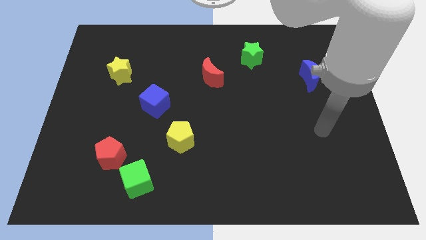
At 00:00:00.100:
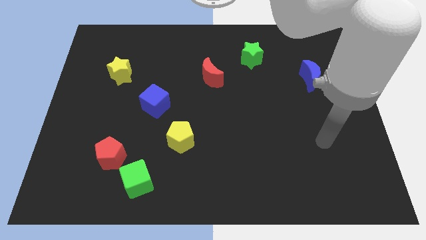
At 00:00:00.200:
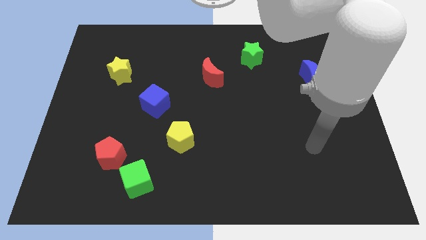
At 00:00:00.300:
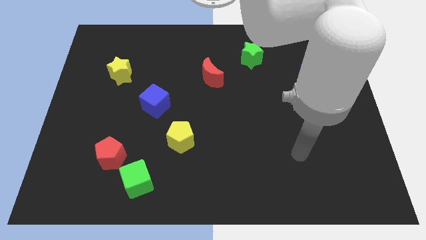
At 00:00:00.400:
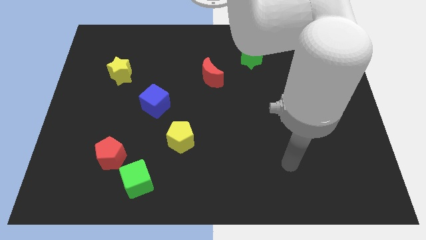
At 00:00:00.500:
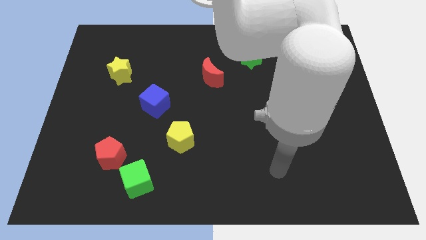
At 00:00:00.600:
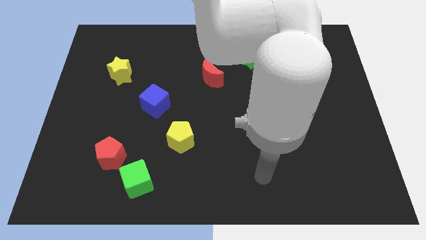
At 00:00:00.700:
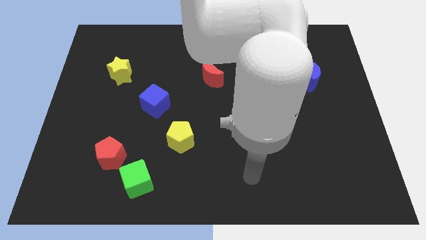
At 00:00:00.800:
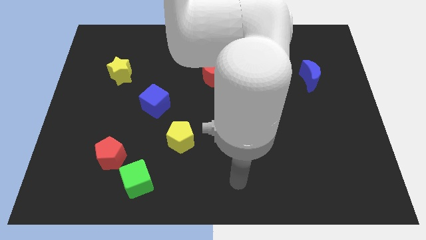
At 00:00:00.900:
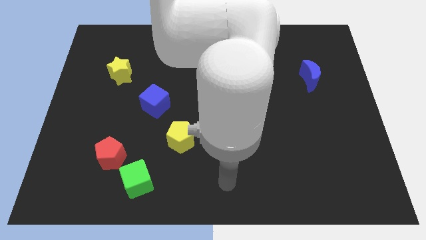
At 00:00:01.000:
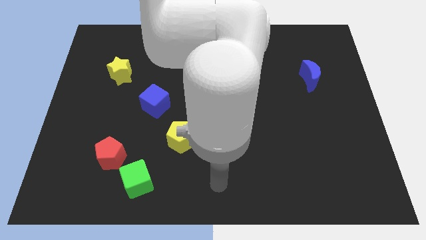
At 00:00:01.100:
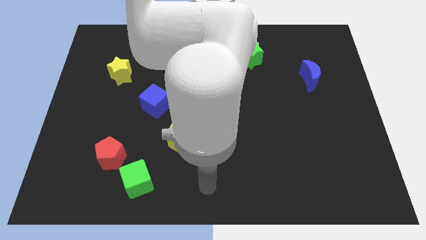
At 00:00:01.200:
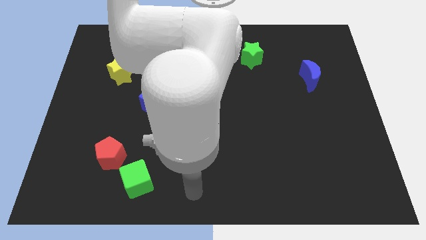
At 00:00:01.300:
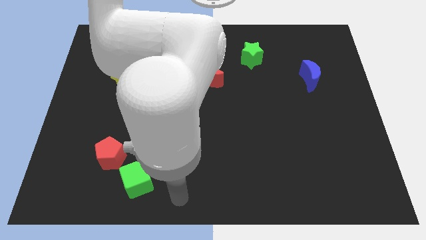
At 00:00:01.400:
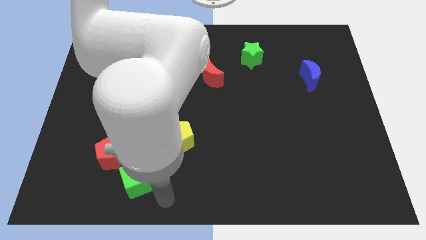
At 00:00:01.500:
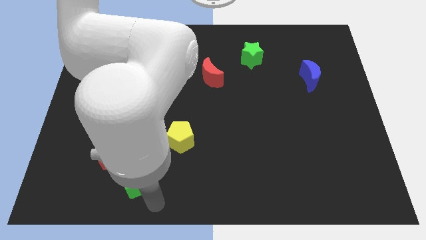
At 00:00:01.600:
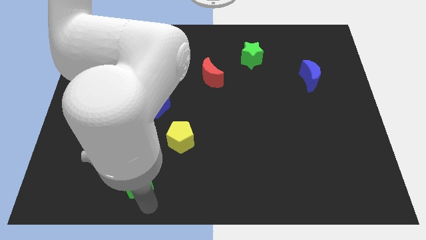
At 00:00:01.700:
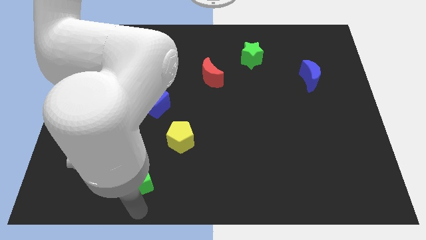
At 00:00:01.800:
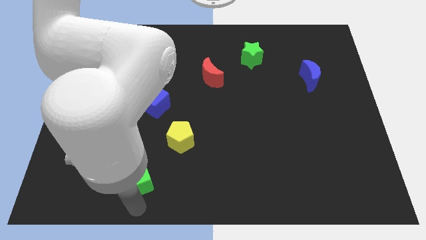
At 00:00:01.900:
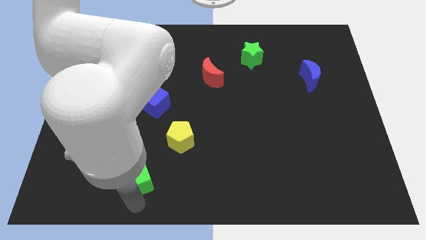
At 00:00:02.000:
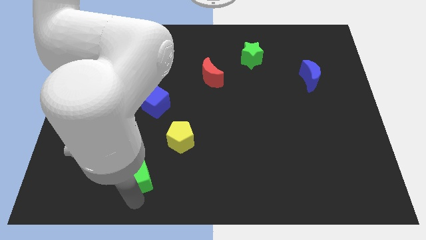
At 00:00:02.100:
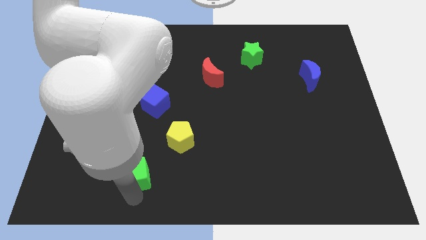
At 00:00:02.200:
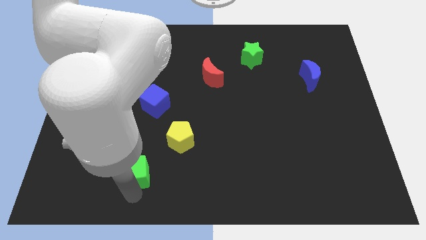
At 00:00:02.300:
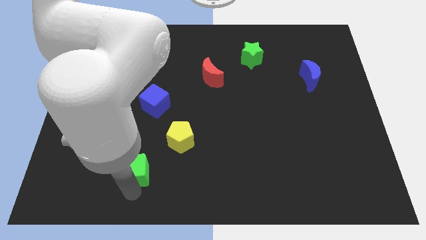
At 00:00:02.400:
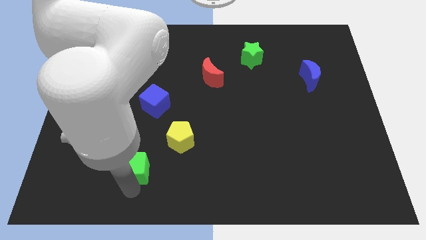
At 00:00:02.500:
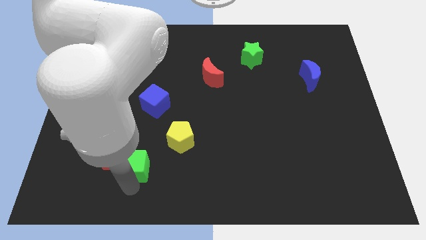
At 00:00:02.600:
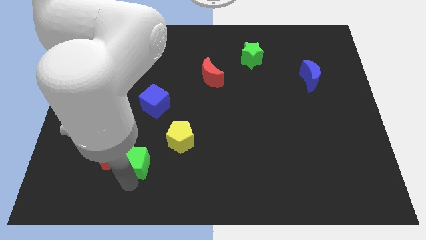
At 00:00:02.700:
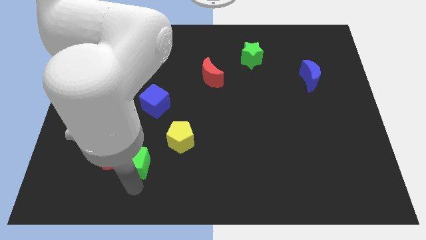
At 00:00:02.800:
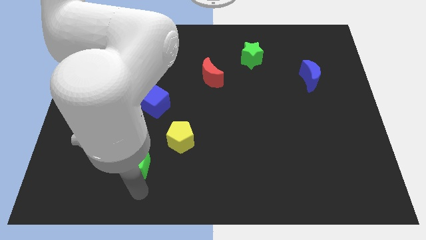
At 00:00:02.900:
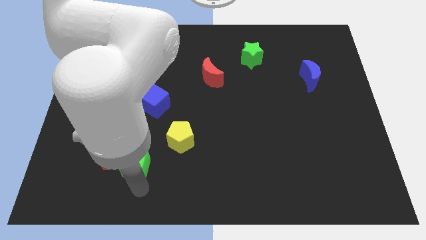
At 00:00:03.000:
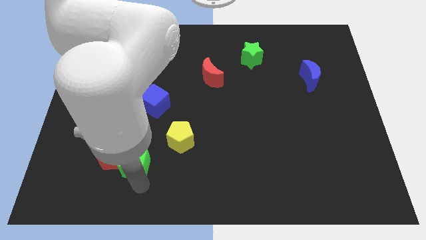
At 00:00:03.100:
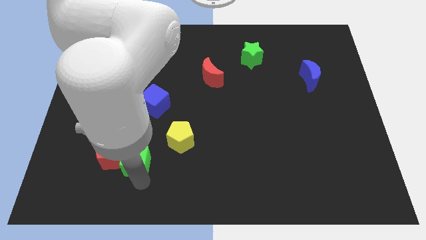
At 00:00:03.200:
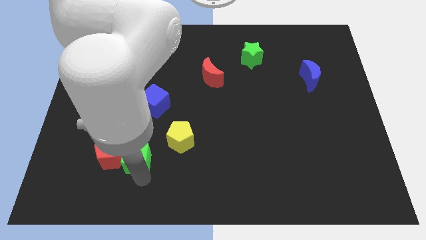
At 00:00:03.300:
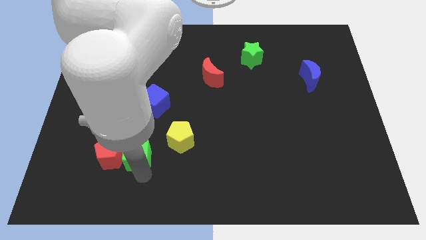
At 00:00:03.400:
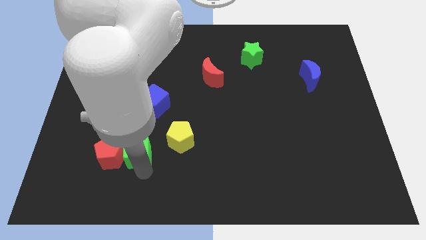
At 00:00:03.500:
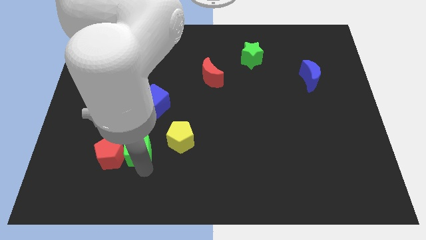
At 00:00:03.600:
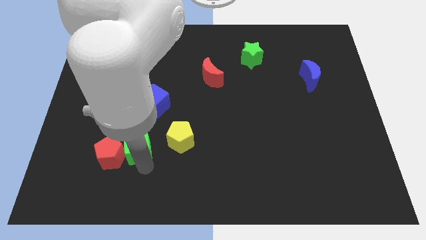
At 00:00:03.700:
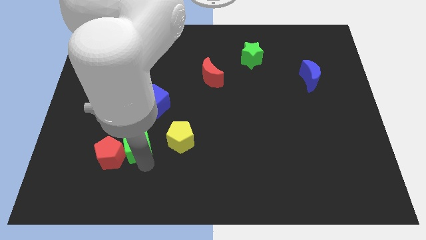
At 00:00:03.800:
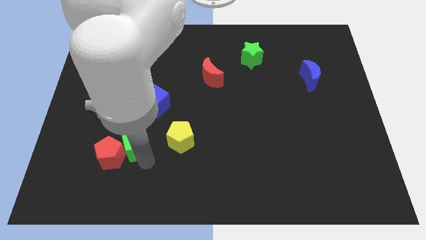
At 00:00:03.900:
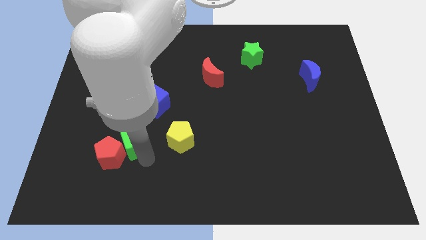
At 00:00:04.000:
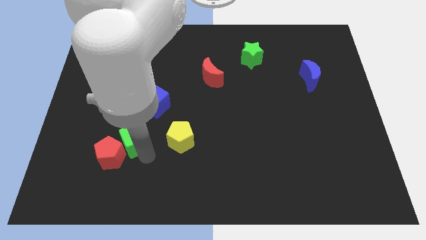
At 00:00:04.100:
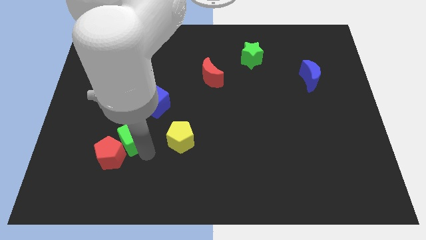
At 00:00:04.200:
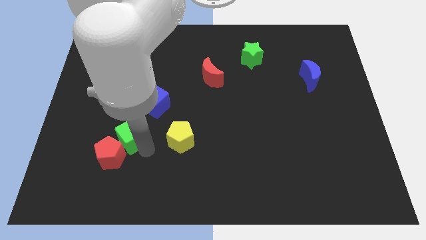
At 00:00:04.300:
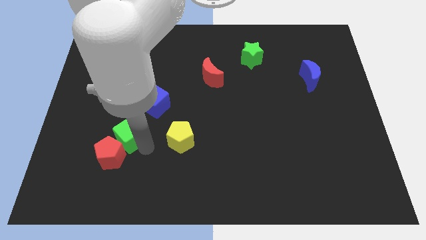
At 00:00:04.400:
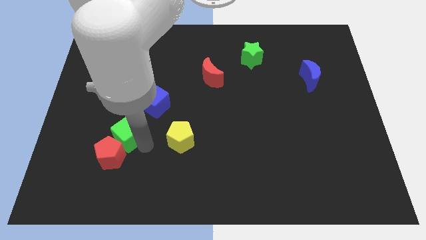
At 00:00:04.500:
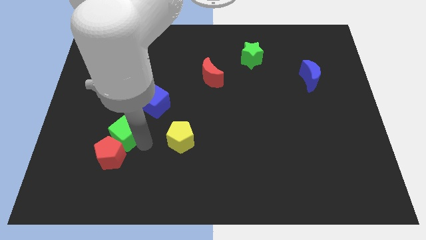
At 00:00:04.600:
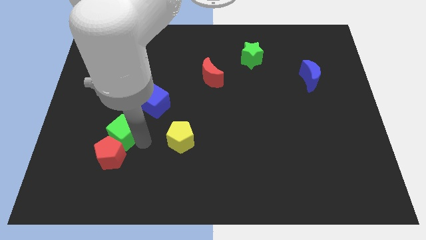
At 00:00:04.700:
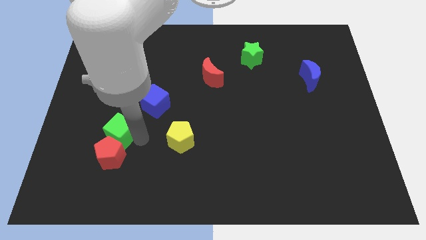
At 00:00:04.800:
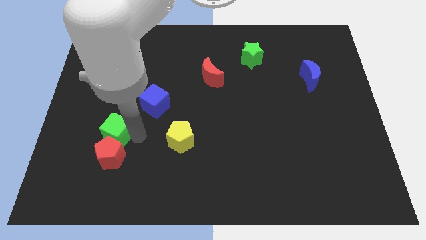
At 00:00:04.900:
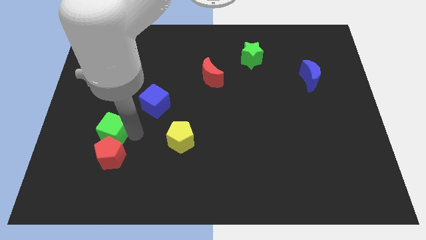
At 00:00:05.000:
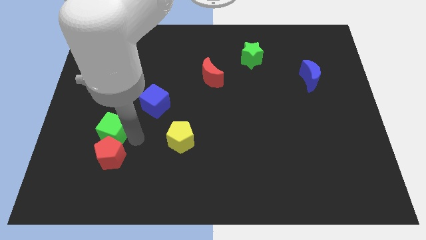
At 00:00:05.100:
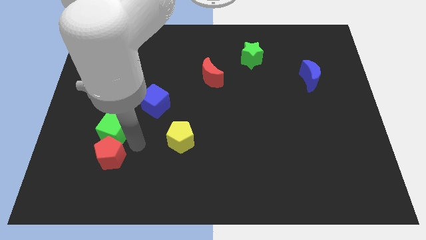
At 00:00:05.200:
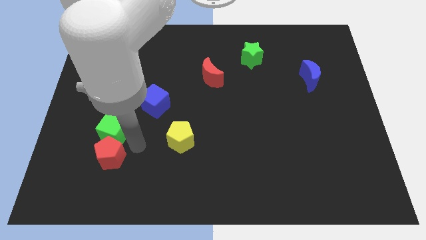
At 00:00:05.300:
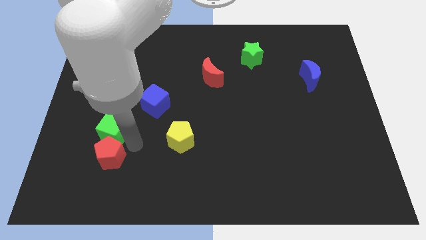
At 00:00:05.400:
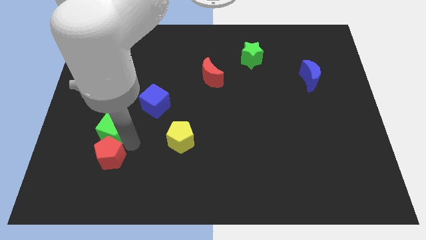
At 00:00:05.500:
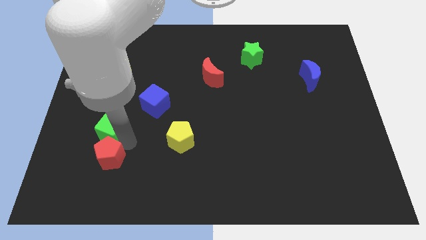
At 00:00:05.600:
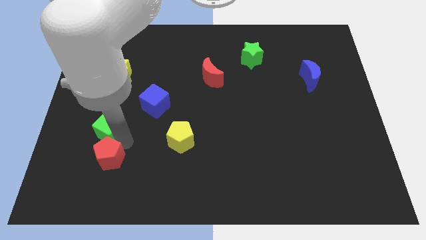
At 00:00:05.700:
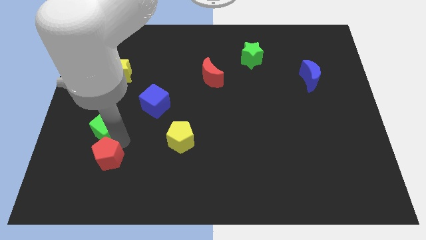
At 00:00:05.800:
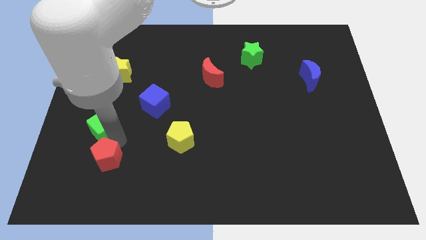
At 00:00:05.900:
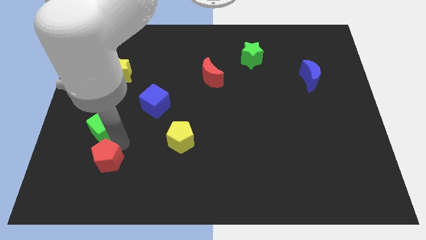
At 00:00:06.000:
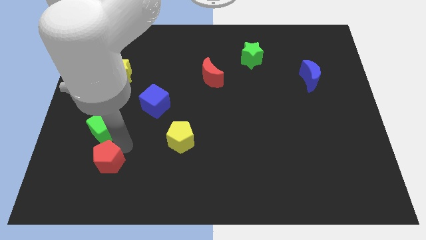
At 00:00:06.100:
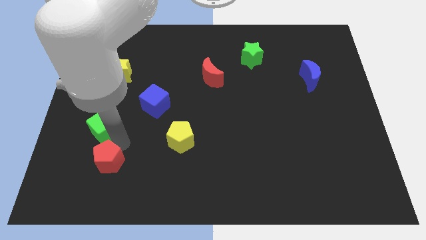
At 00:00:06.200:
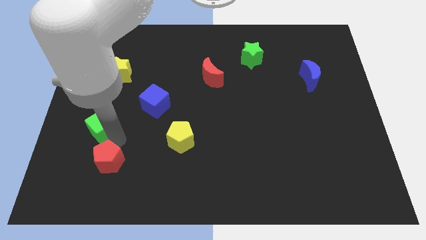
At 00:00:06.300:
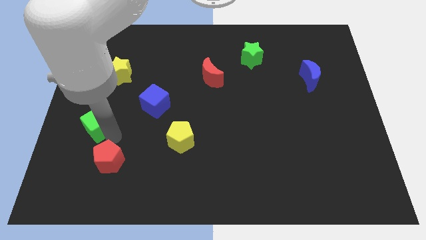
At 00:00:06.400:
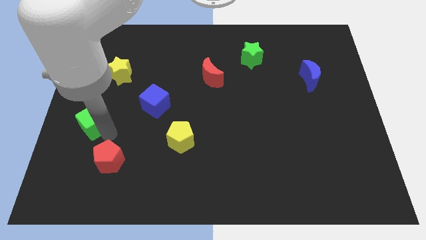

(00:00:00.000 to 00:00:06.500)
put the green cube to the left side of the board
